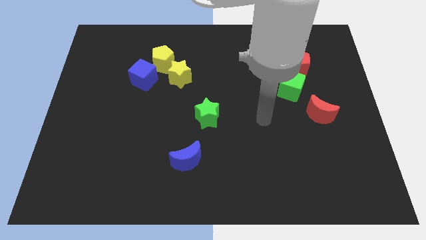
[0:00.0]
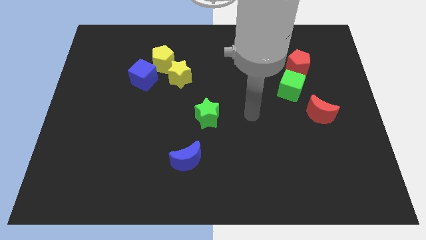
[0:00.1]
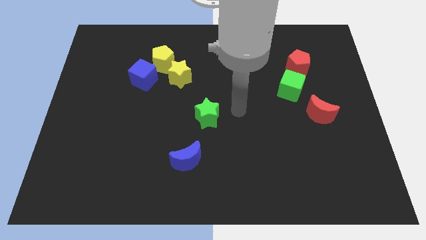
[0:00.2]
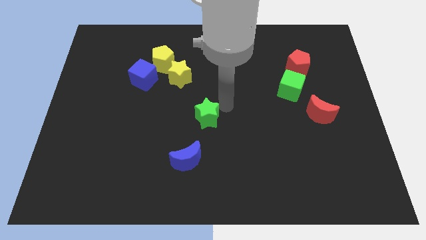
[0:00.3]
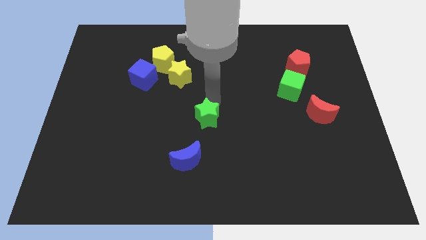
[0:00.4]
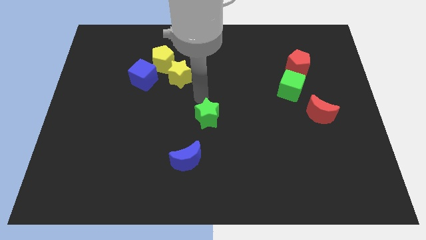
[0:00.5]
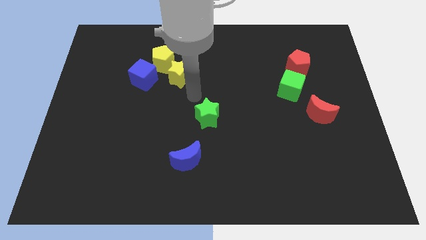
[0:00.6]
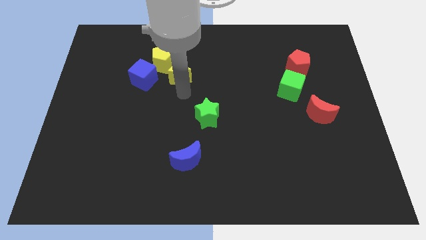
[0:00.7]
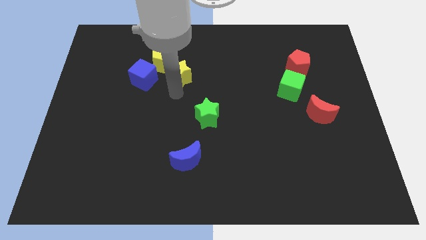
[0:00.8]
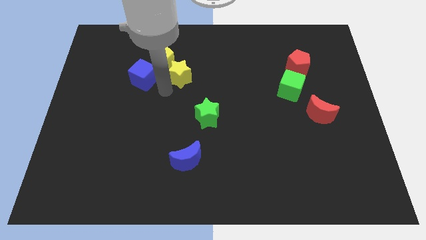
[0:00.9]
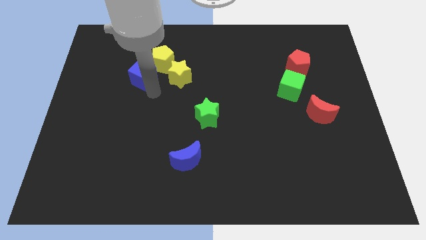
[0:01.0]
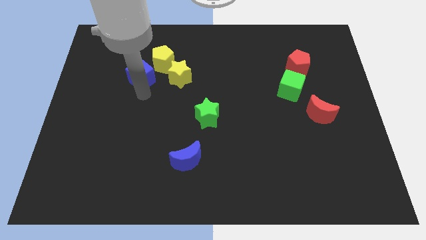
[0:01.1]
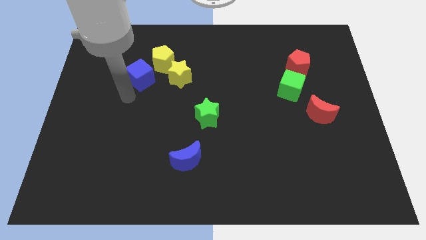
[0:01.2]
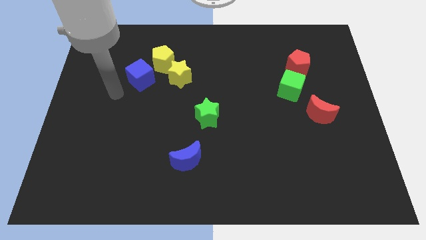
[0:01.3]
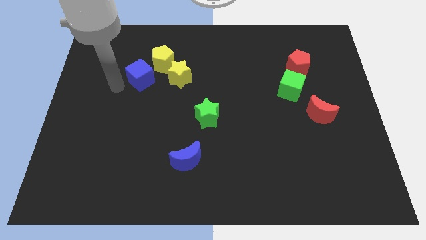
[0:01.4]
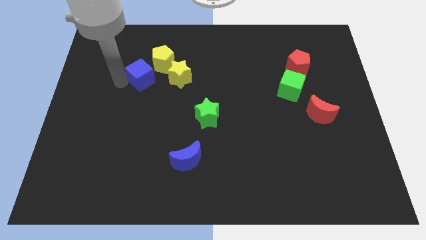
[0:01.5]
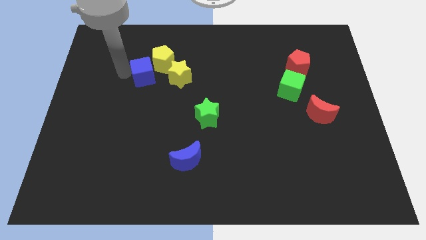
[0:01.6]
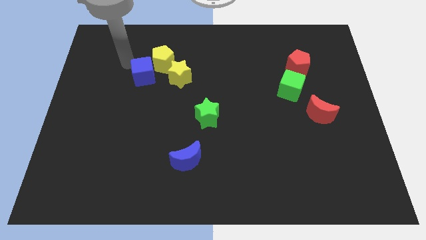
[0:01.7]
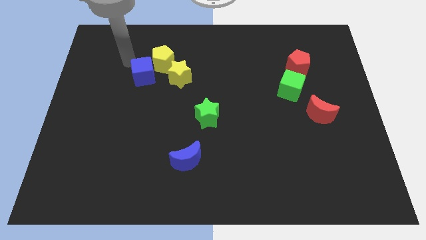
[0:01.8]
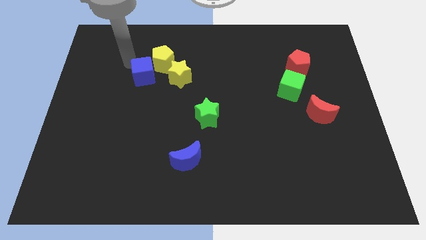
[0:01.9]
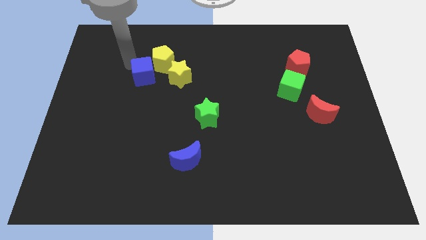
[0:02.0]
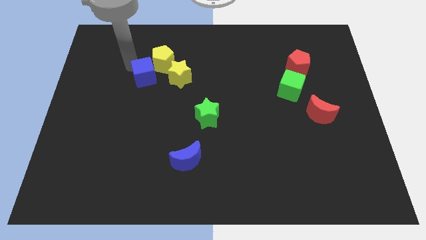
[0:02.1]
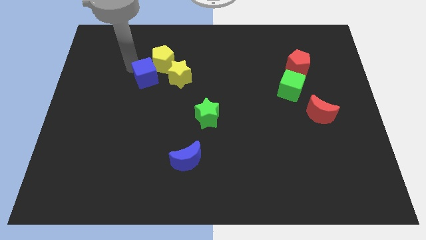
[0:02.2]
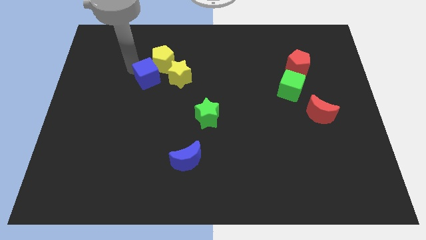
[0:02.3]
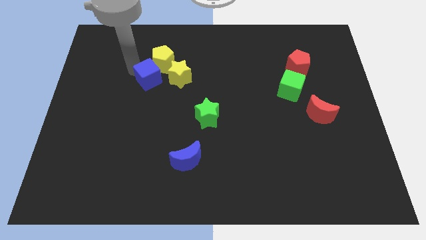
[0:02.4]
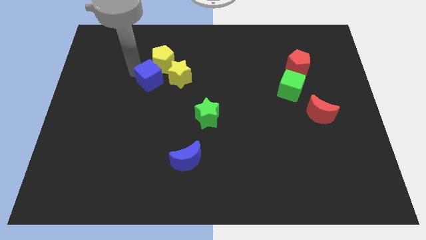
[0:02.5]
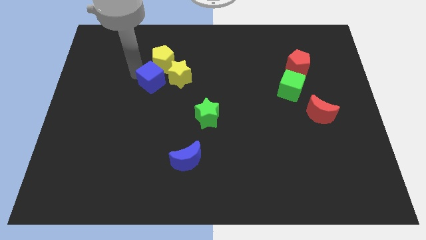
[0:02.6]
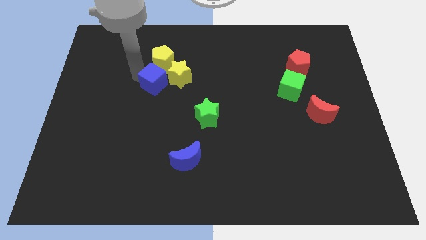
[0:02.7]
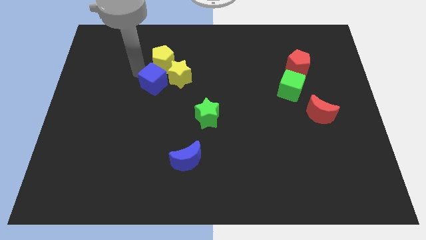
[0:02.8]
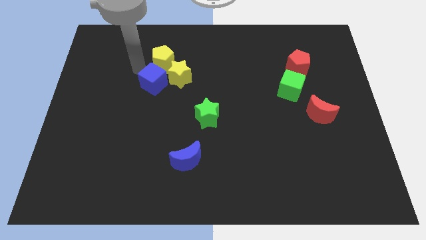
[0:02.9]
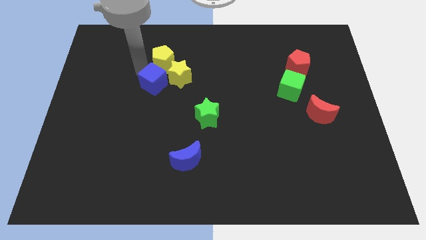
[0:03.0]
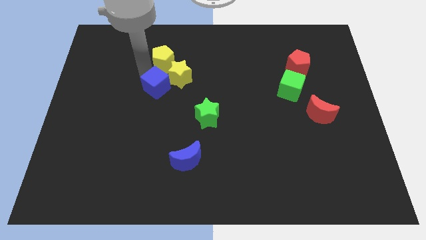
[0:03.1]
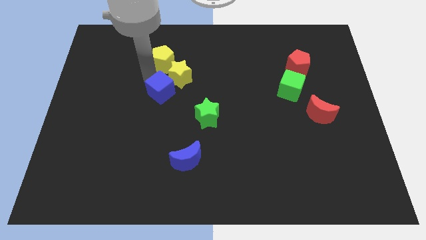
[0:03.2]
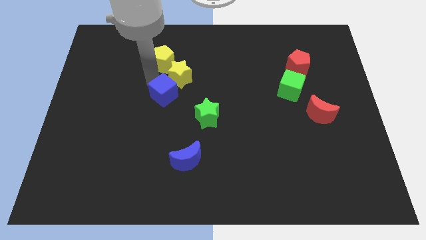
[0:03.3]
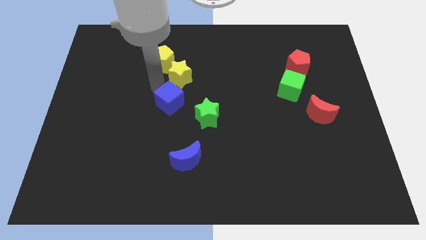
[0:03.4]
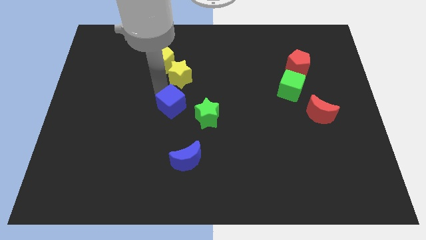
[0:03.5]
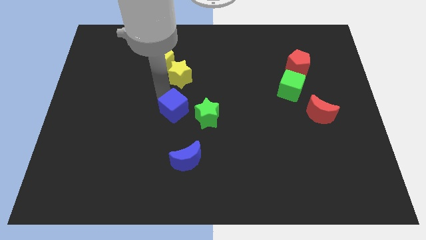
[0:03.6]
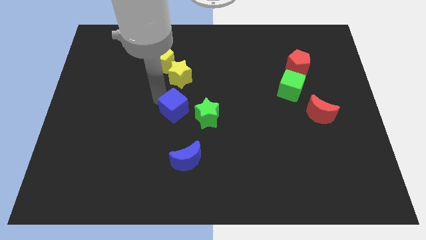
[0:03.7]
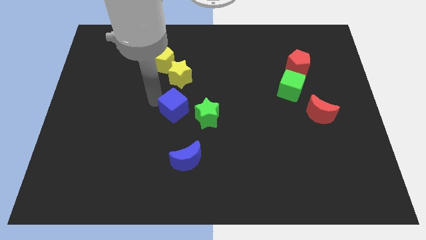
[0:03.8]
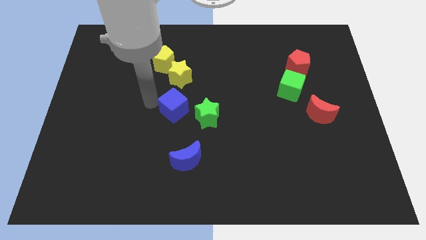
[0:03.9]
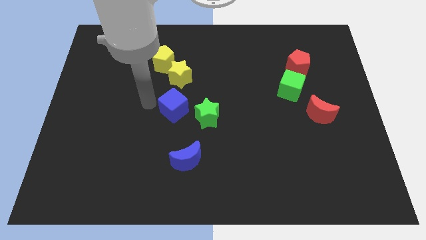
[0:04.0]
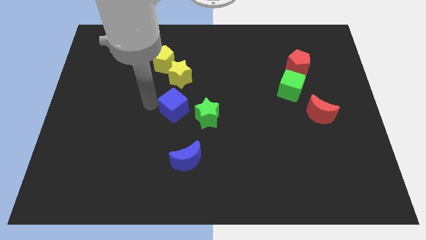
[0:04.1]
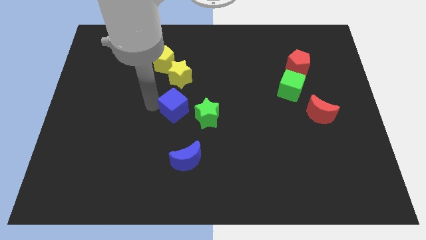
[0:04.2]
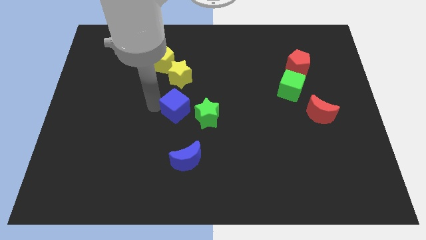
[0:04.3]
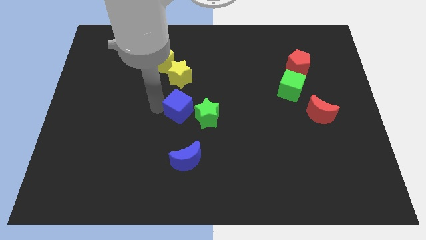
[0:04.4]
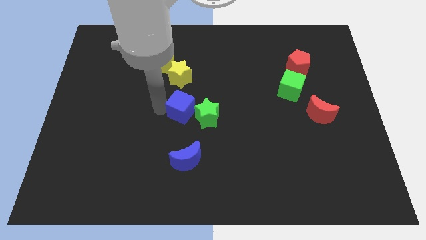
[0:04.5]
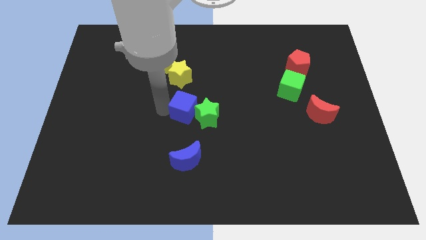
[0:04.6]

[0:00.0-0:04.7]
move the blue cube to the green star

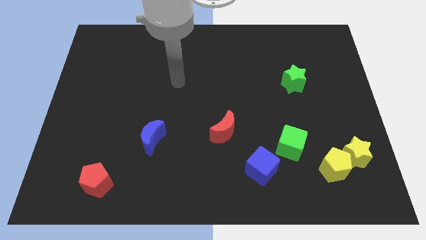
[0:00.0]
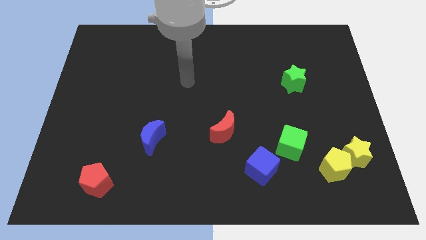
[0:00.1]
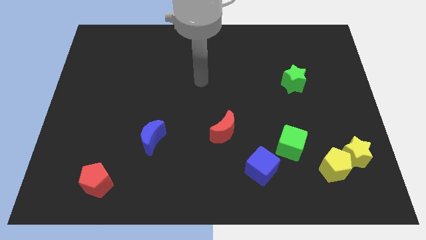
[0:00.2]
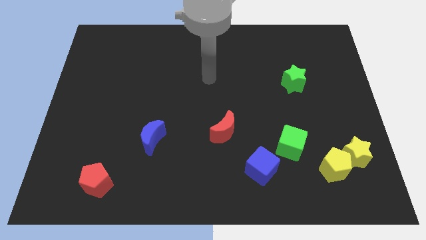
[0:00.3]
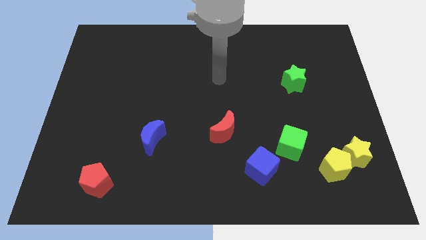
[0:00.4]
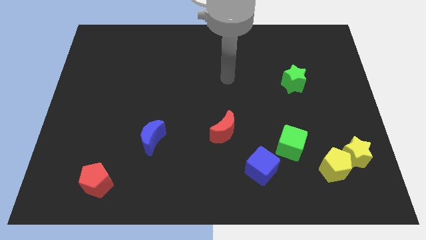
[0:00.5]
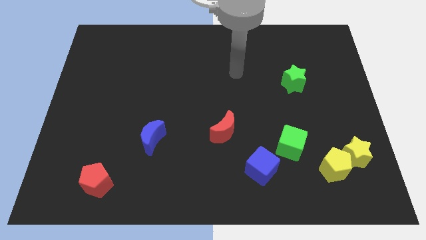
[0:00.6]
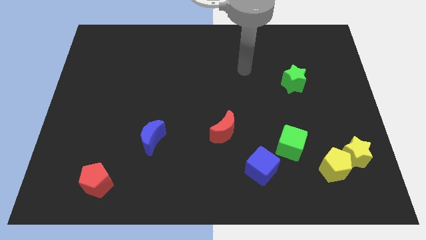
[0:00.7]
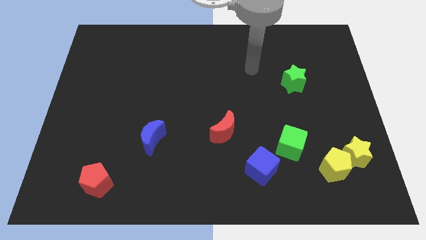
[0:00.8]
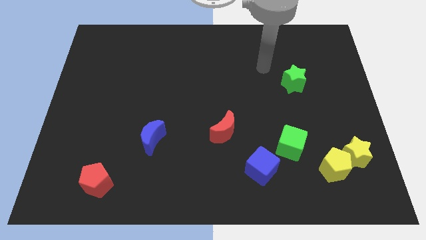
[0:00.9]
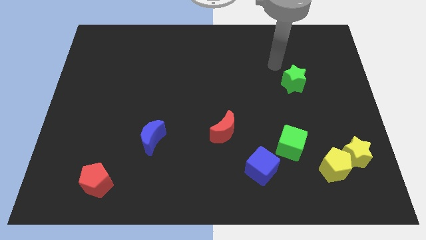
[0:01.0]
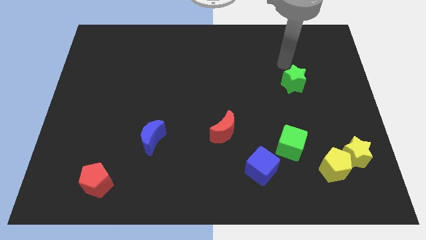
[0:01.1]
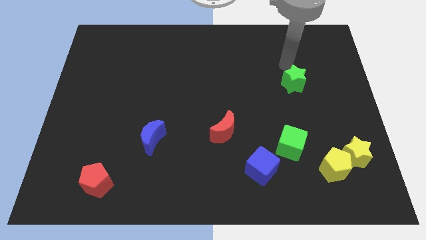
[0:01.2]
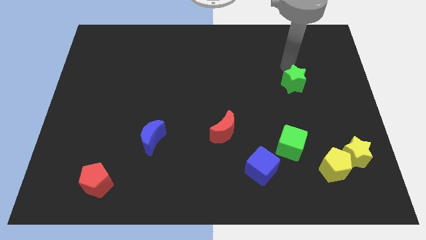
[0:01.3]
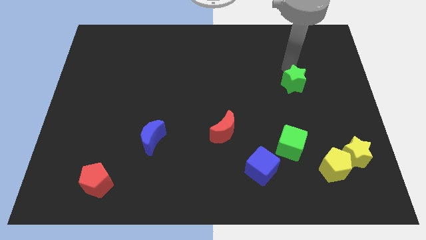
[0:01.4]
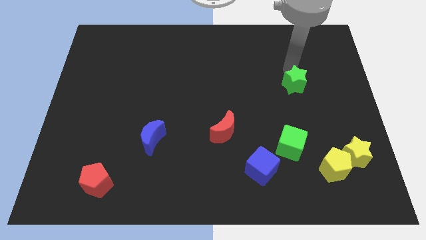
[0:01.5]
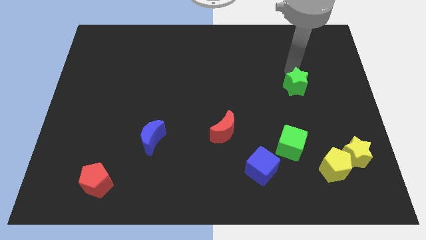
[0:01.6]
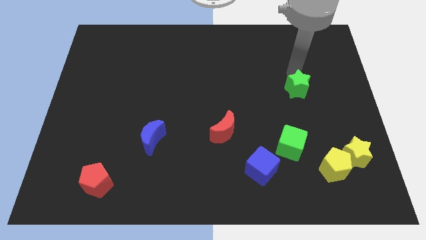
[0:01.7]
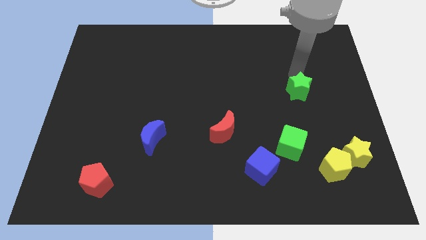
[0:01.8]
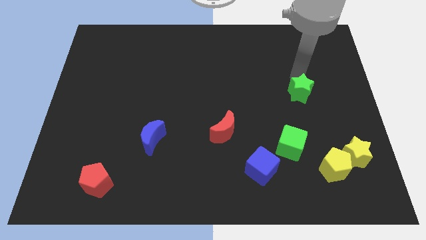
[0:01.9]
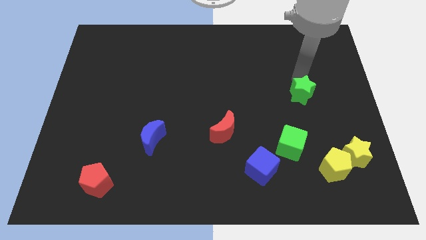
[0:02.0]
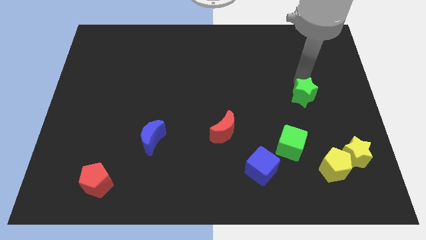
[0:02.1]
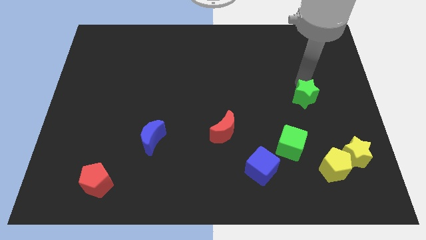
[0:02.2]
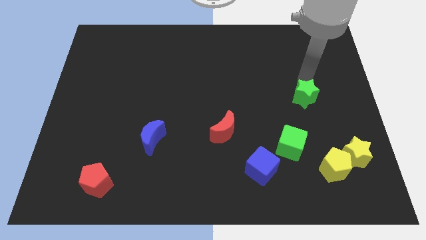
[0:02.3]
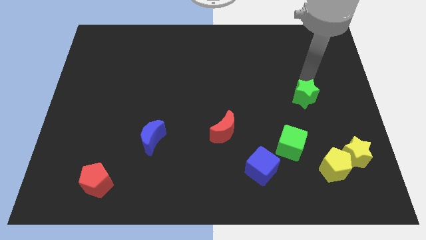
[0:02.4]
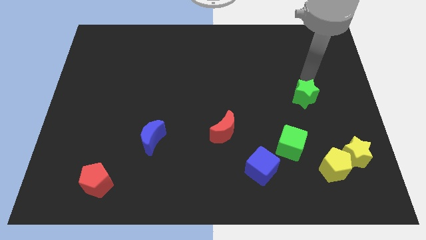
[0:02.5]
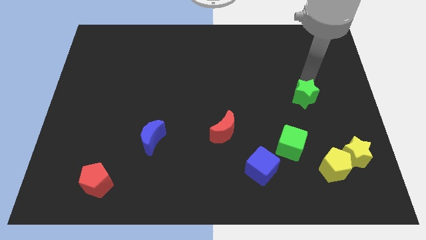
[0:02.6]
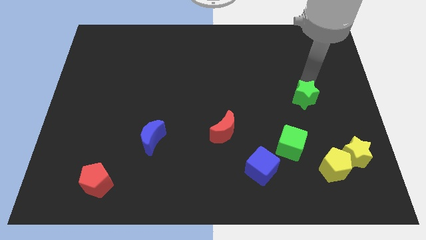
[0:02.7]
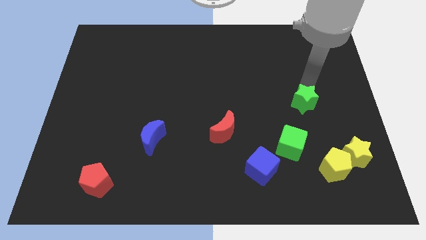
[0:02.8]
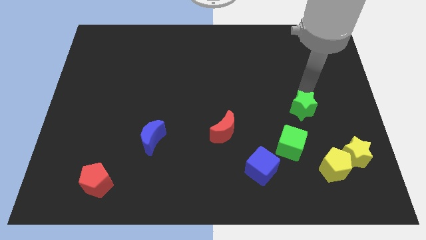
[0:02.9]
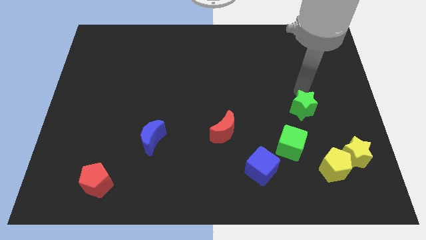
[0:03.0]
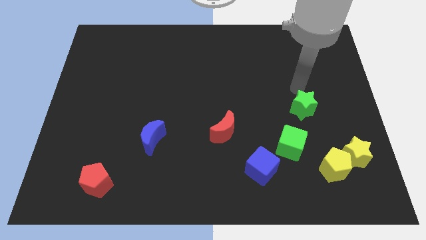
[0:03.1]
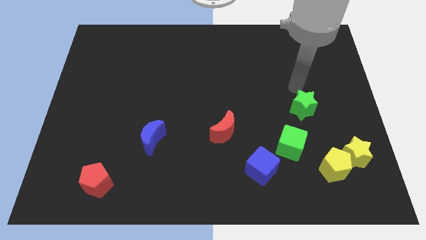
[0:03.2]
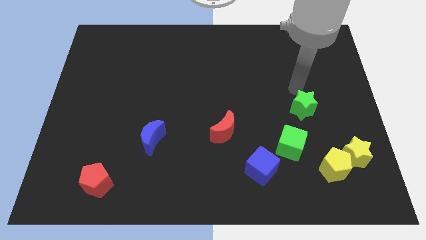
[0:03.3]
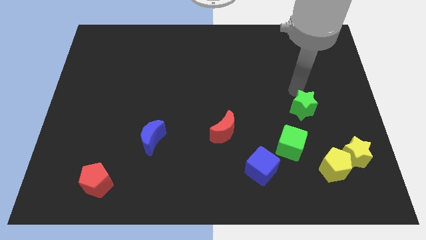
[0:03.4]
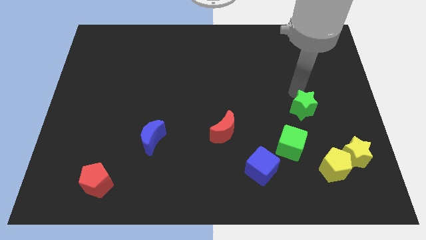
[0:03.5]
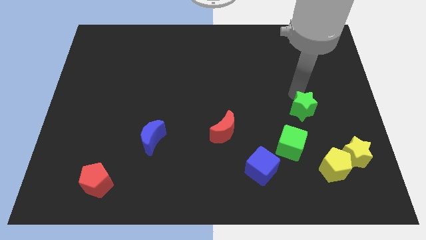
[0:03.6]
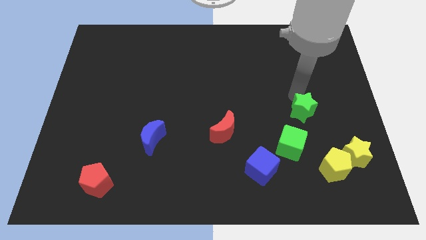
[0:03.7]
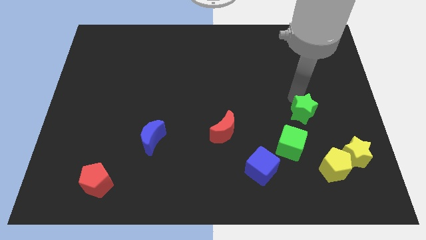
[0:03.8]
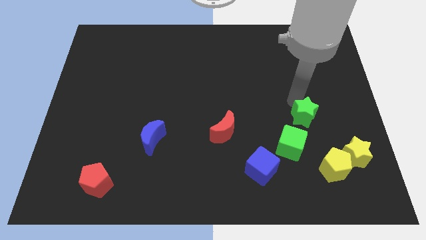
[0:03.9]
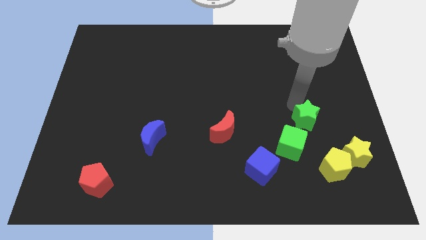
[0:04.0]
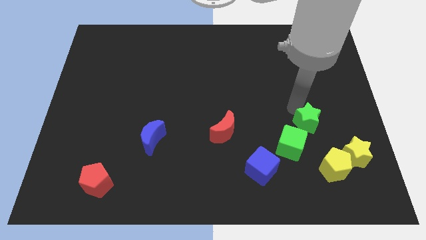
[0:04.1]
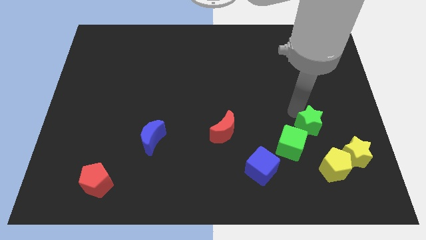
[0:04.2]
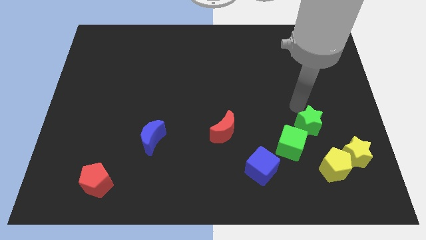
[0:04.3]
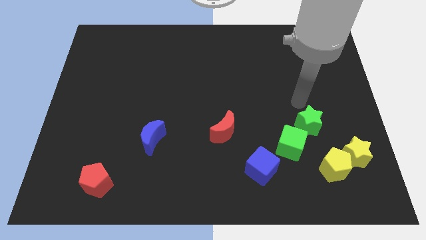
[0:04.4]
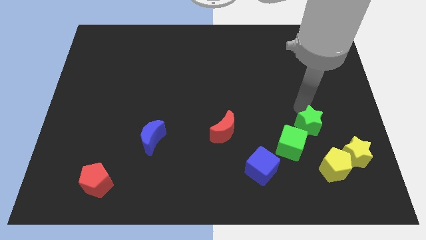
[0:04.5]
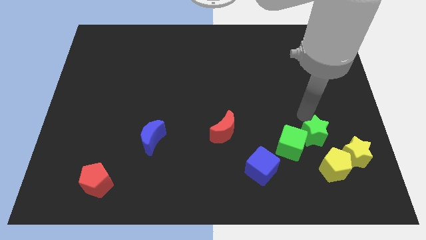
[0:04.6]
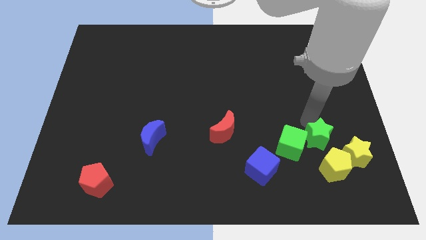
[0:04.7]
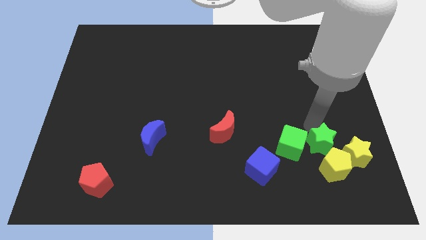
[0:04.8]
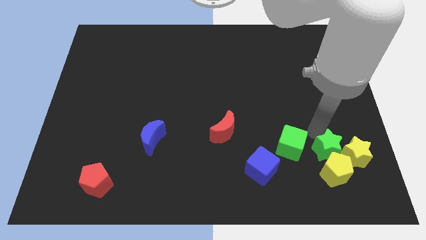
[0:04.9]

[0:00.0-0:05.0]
move the green star to the yellow pentagon
